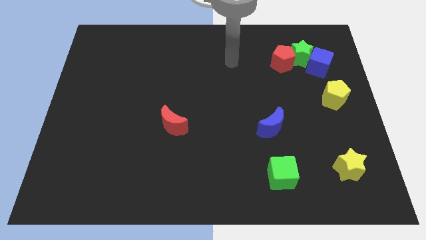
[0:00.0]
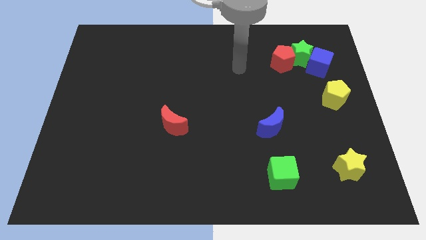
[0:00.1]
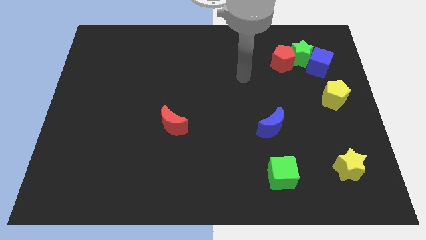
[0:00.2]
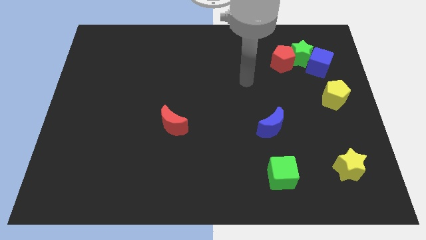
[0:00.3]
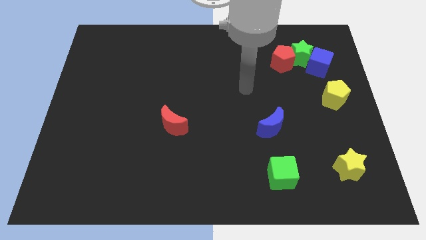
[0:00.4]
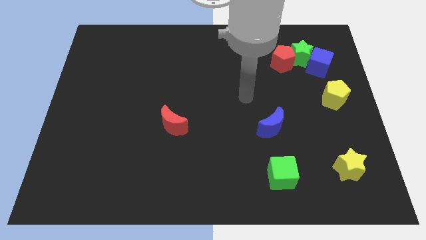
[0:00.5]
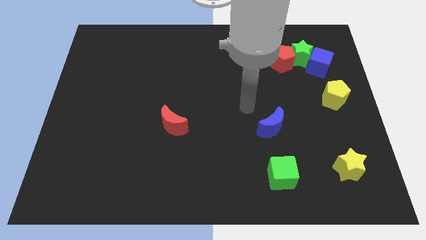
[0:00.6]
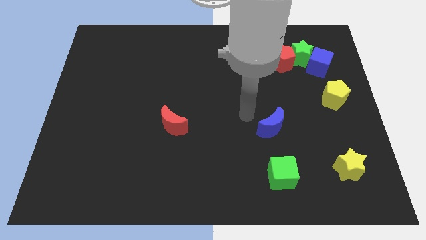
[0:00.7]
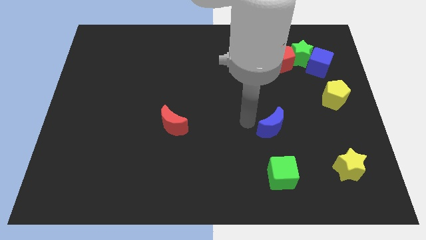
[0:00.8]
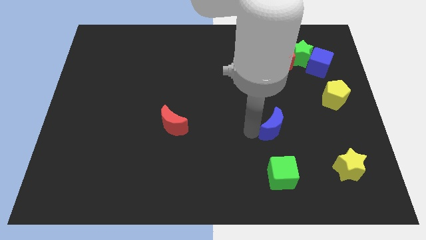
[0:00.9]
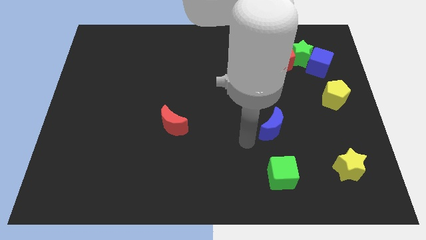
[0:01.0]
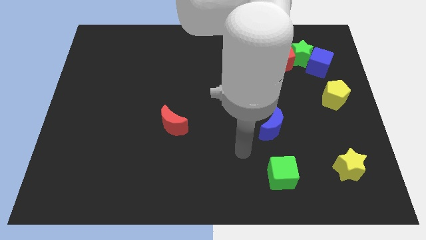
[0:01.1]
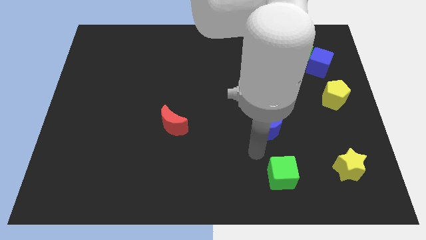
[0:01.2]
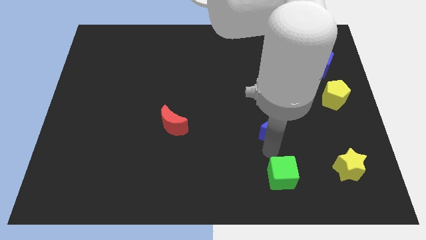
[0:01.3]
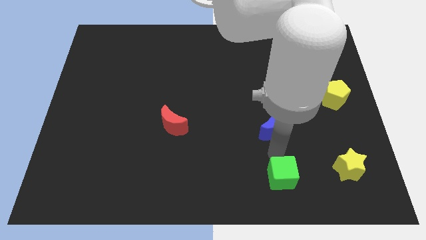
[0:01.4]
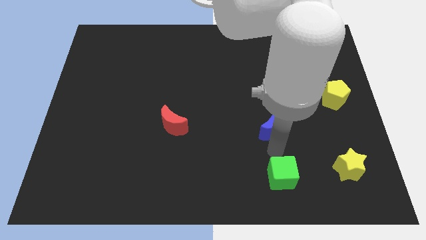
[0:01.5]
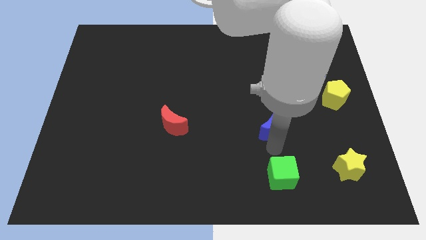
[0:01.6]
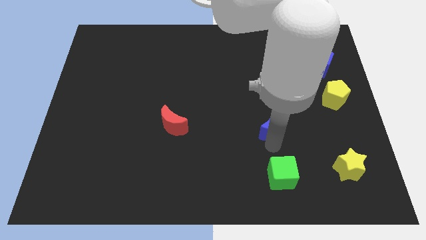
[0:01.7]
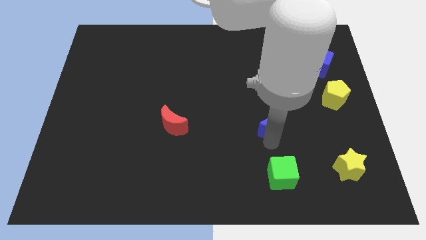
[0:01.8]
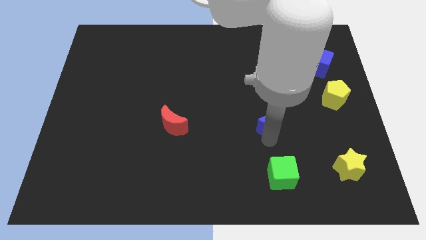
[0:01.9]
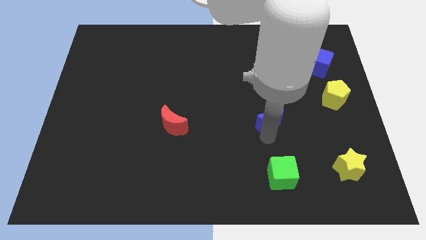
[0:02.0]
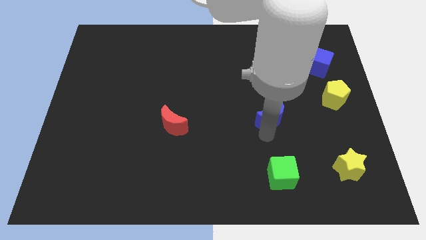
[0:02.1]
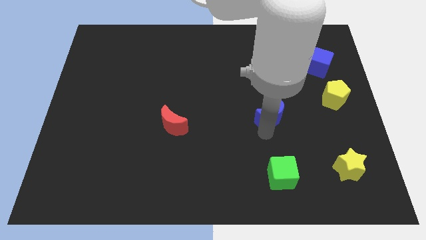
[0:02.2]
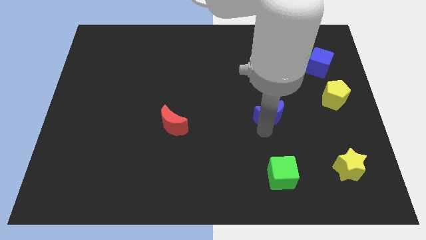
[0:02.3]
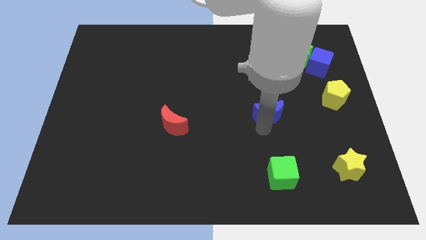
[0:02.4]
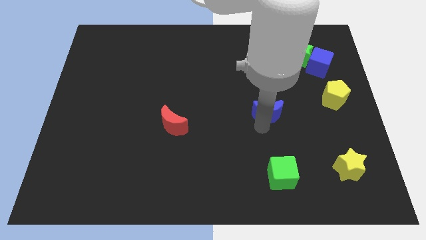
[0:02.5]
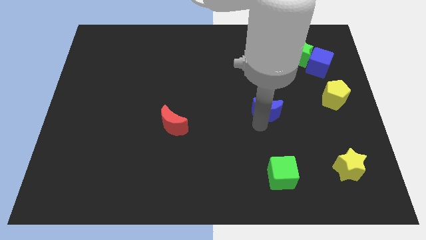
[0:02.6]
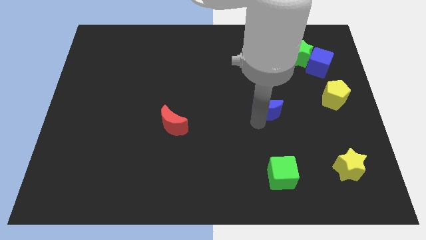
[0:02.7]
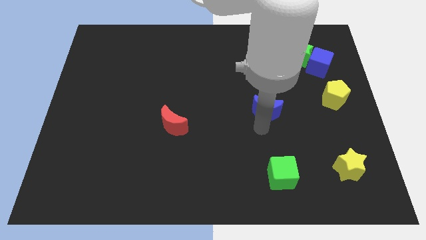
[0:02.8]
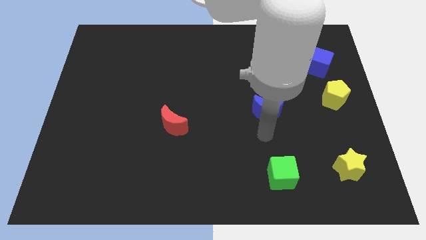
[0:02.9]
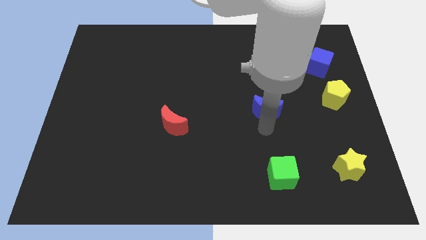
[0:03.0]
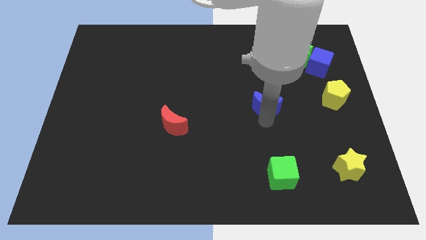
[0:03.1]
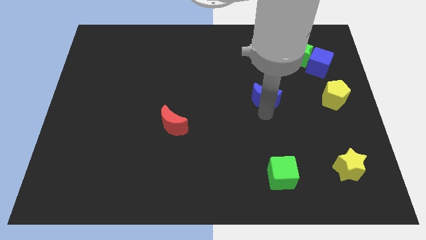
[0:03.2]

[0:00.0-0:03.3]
push the blue moon a little bit upwards

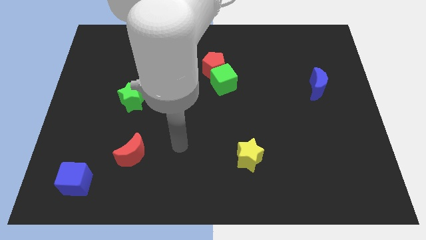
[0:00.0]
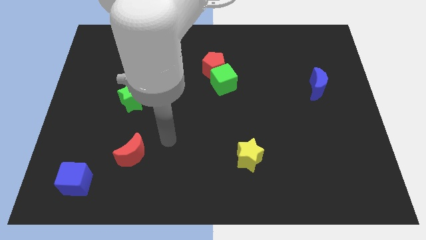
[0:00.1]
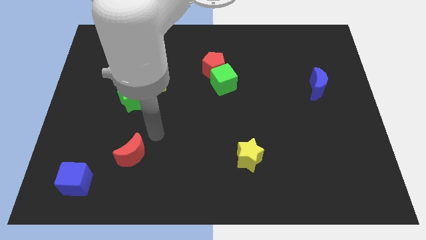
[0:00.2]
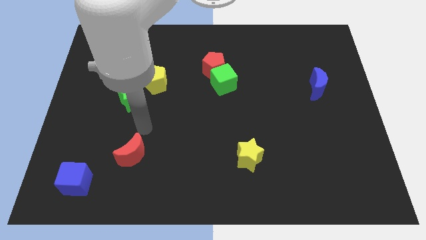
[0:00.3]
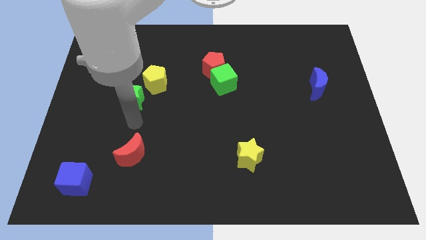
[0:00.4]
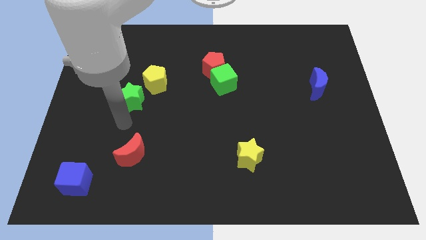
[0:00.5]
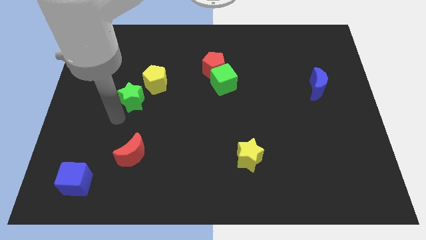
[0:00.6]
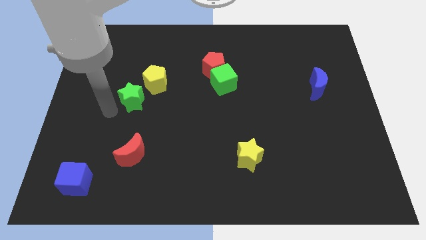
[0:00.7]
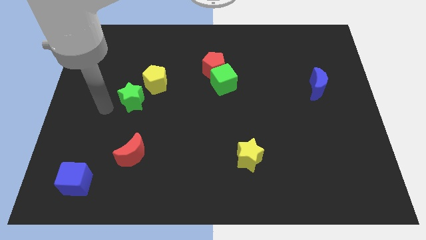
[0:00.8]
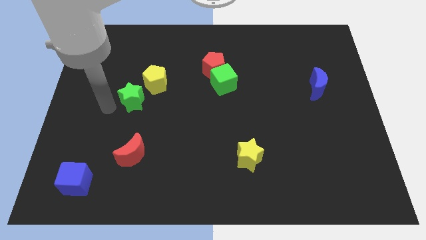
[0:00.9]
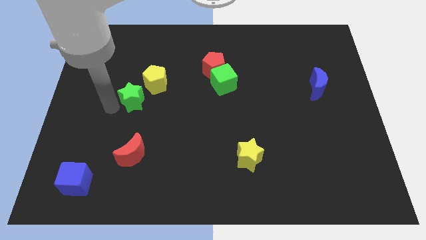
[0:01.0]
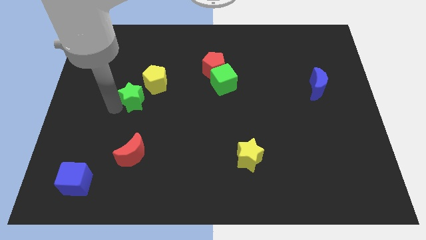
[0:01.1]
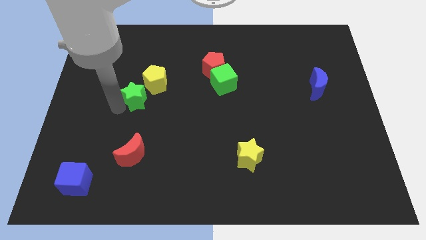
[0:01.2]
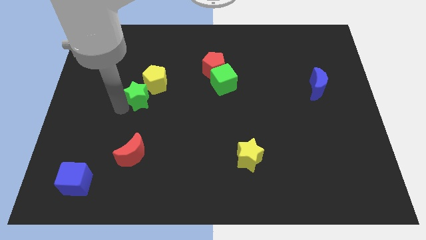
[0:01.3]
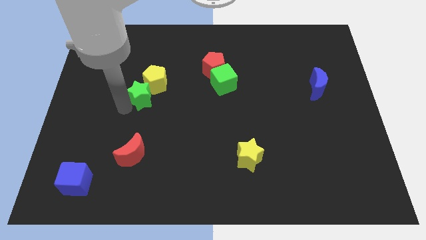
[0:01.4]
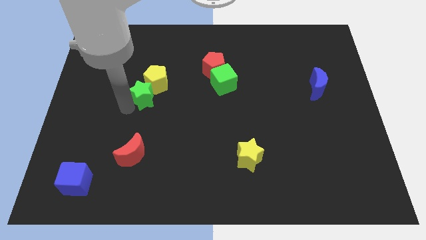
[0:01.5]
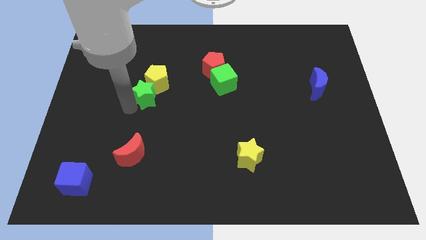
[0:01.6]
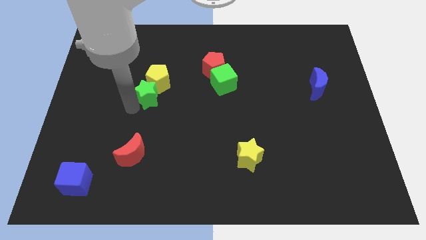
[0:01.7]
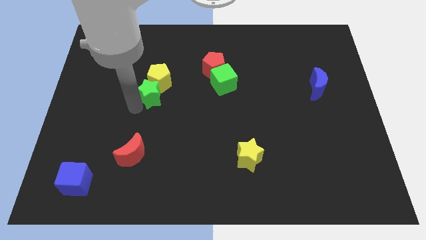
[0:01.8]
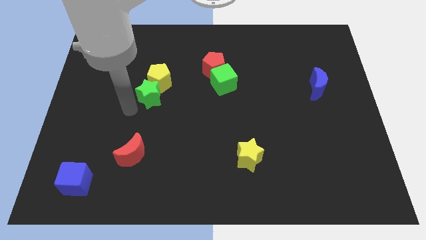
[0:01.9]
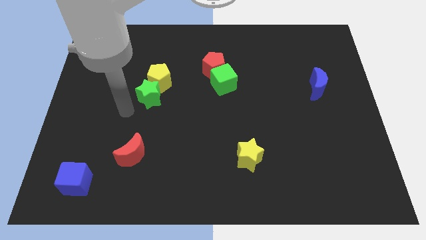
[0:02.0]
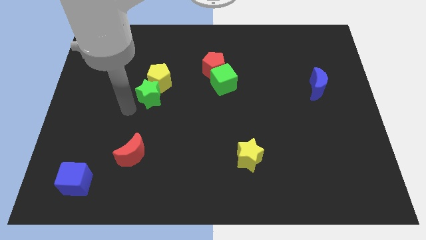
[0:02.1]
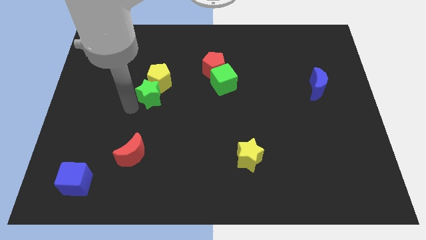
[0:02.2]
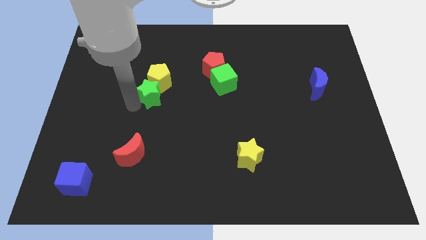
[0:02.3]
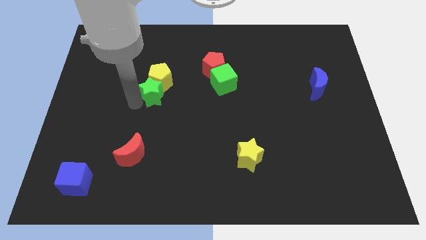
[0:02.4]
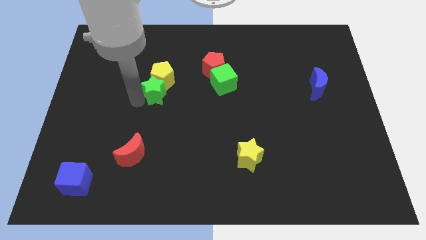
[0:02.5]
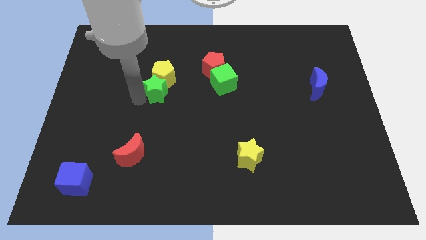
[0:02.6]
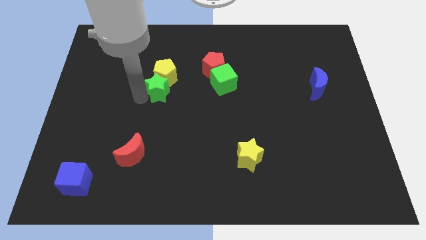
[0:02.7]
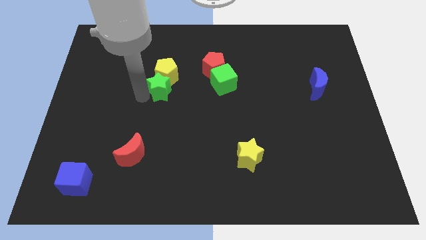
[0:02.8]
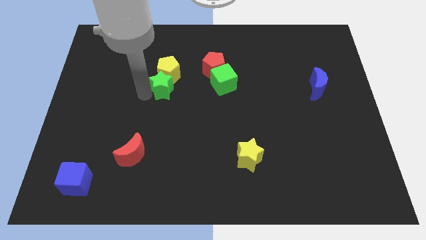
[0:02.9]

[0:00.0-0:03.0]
slightly slide the green star up and then to the right

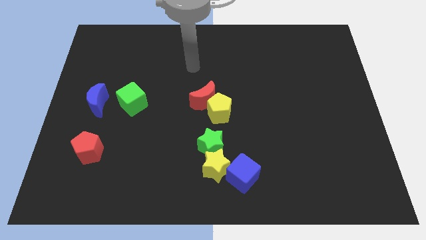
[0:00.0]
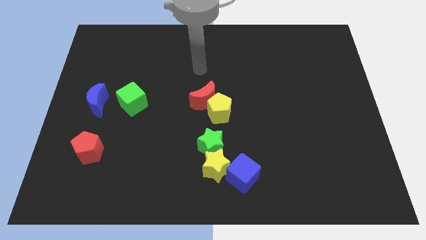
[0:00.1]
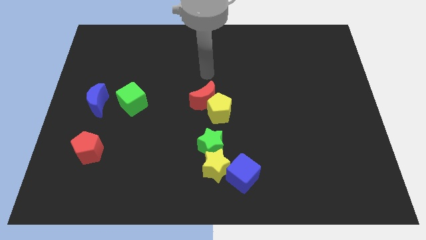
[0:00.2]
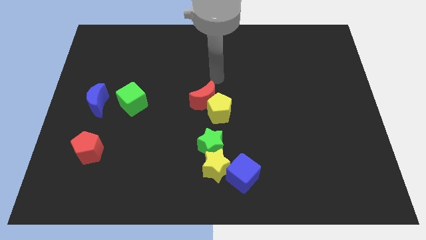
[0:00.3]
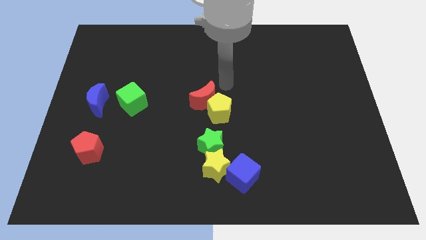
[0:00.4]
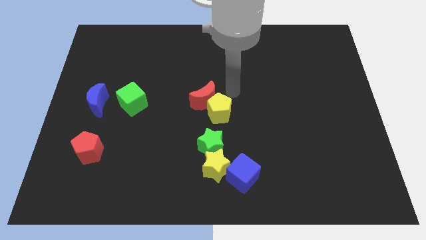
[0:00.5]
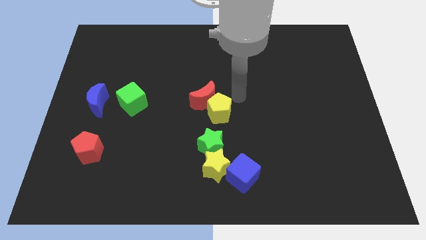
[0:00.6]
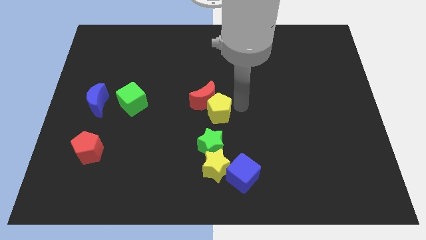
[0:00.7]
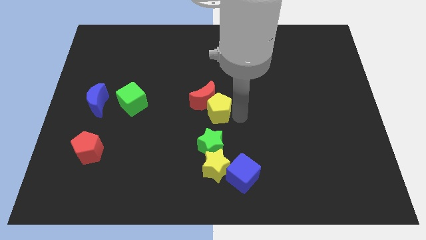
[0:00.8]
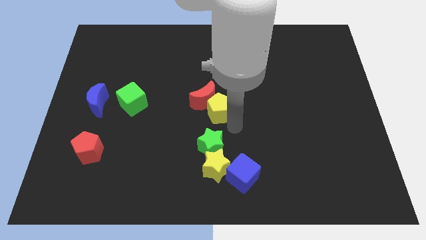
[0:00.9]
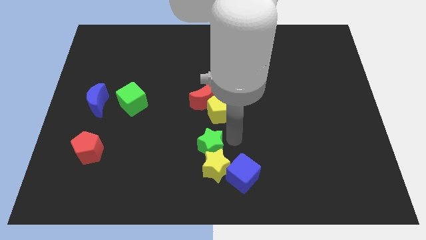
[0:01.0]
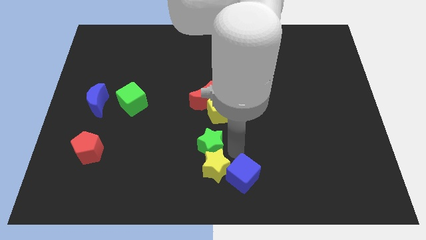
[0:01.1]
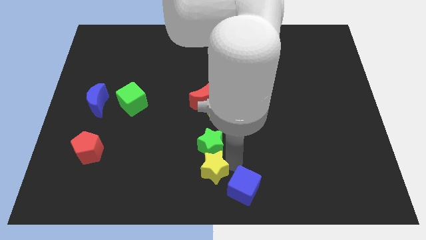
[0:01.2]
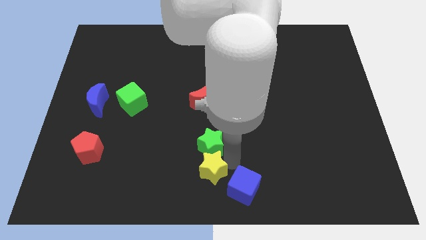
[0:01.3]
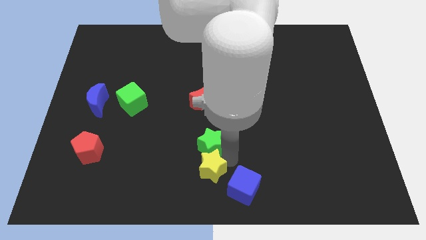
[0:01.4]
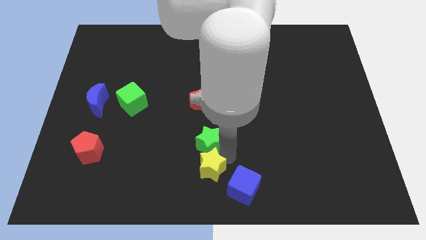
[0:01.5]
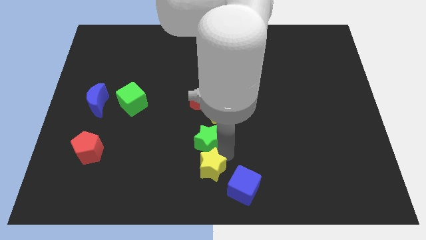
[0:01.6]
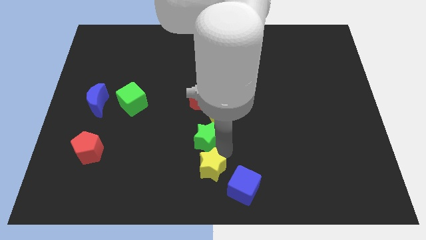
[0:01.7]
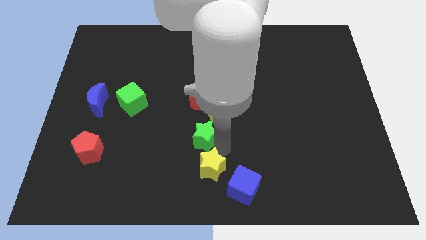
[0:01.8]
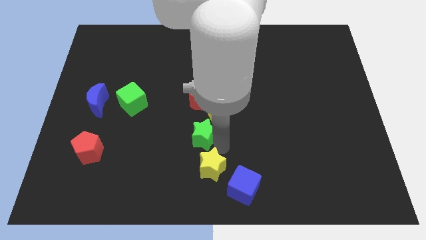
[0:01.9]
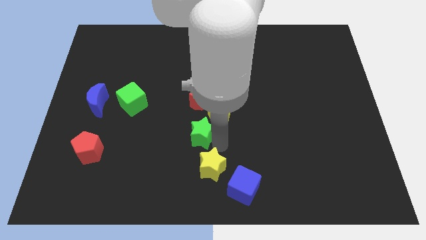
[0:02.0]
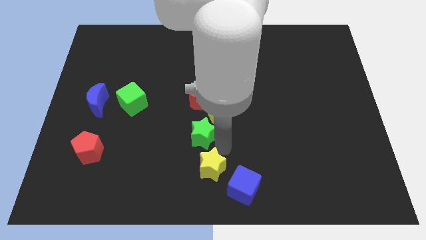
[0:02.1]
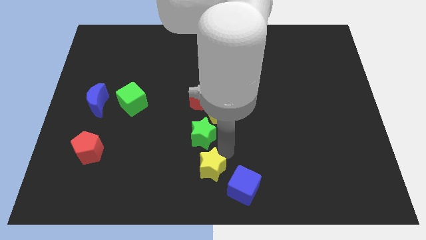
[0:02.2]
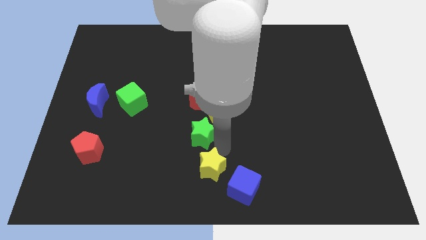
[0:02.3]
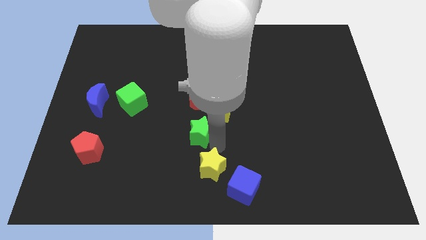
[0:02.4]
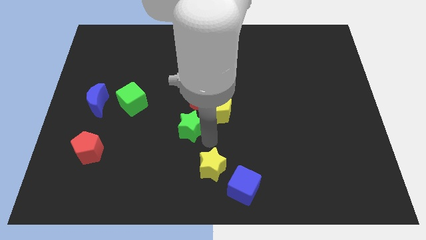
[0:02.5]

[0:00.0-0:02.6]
push the green star up and to the left diagonally somewhat
